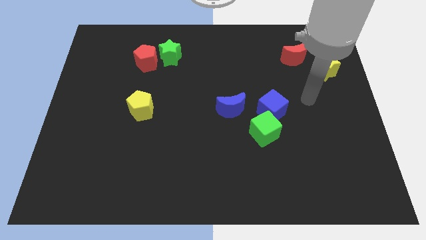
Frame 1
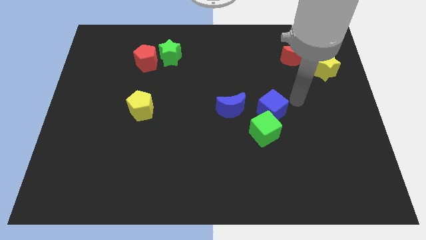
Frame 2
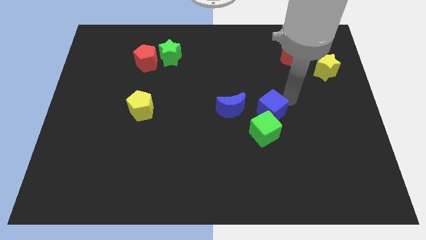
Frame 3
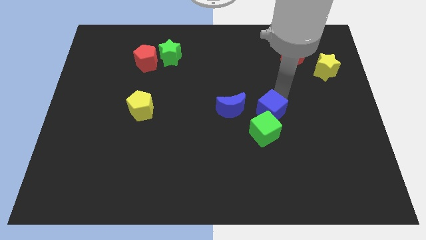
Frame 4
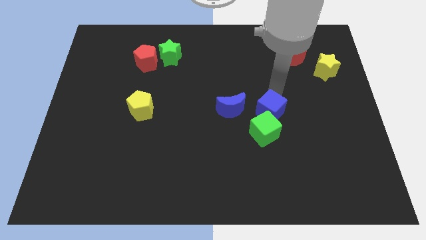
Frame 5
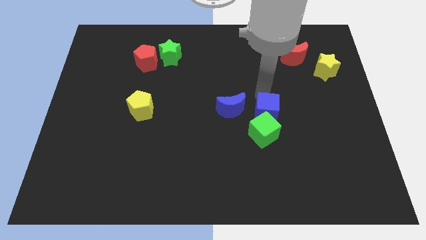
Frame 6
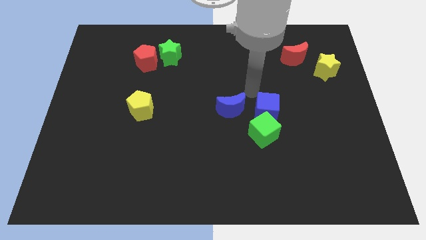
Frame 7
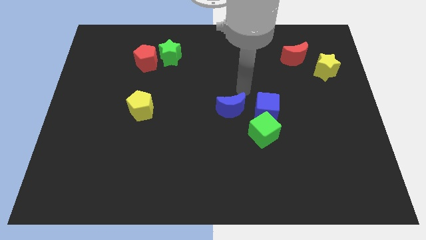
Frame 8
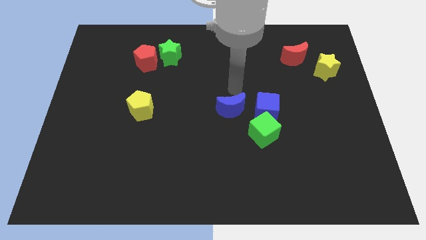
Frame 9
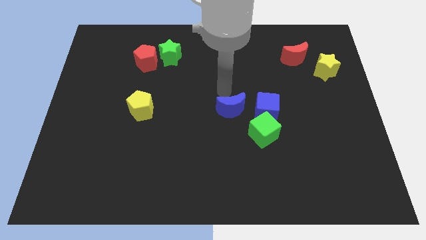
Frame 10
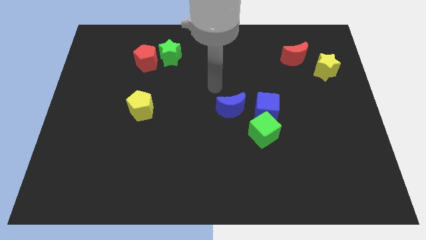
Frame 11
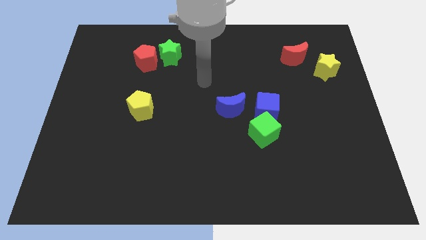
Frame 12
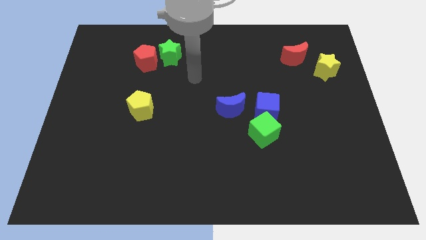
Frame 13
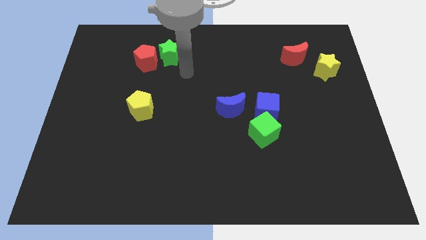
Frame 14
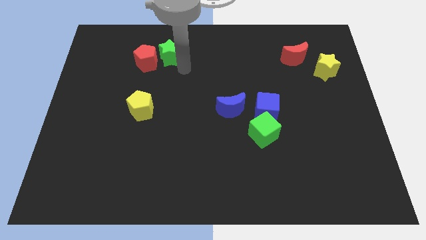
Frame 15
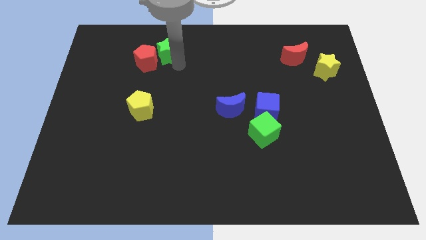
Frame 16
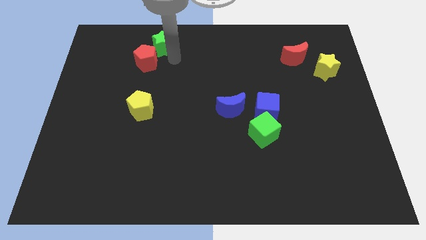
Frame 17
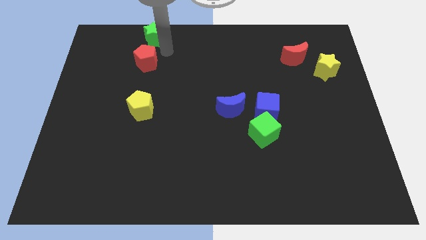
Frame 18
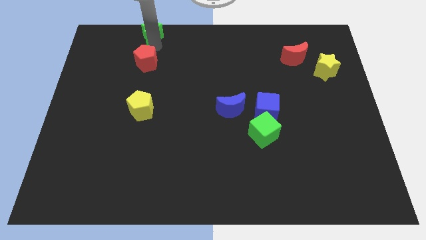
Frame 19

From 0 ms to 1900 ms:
separate the red pentagon from the green star

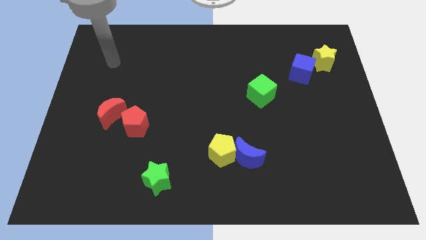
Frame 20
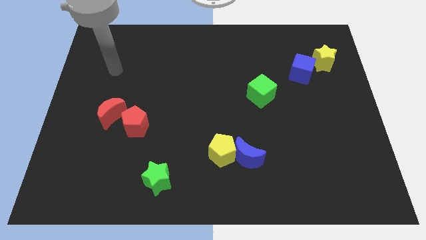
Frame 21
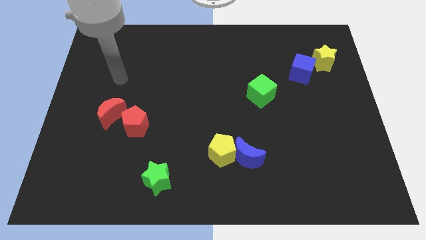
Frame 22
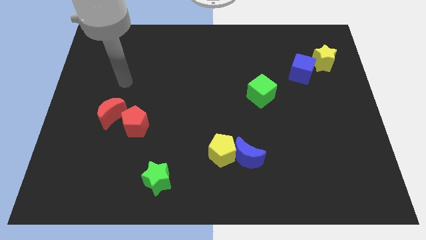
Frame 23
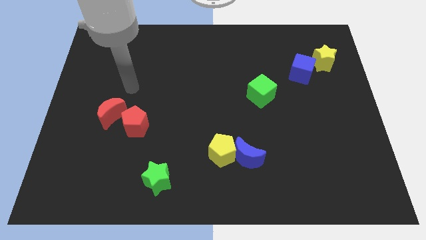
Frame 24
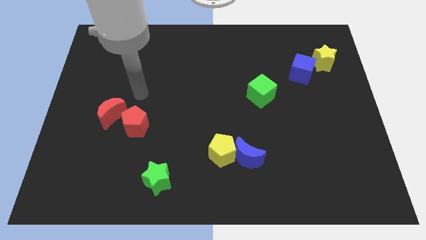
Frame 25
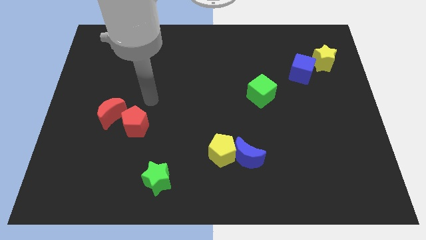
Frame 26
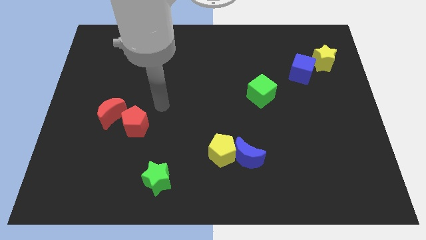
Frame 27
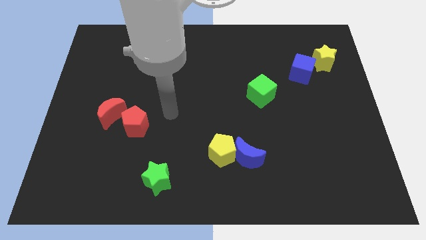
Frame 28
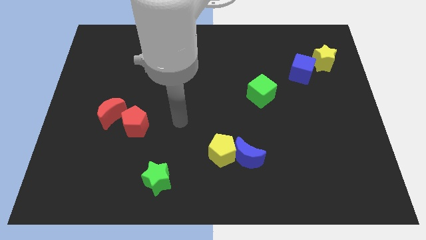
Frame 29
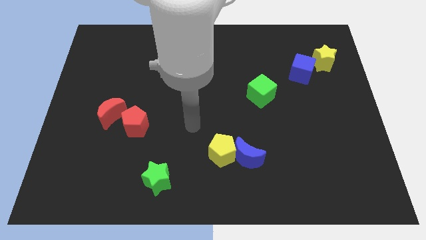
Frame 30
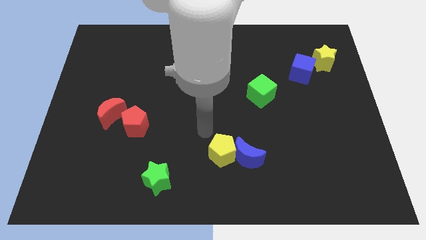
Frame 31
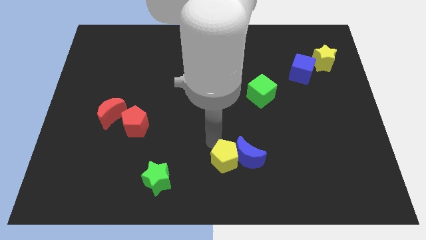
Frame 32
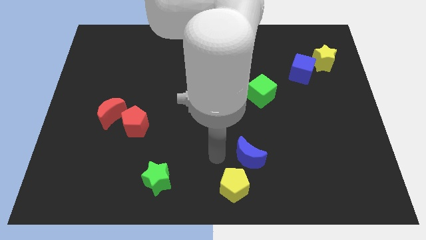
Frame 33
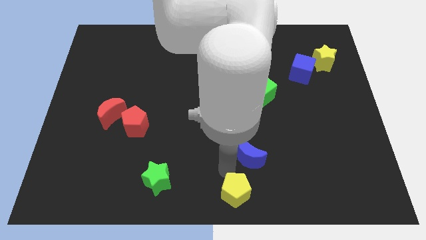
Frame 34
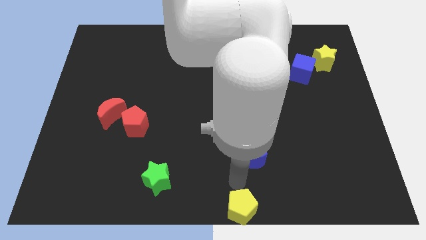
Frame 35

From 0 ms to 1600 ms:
separate the blue moon from the yellow pentagon

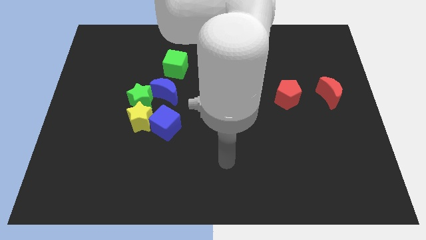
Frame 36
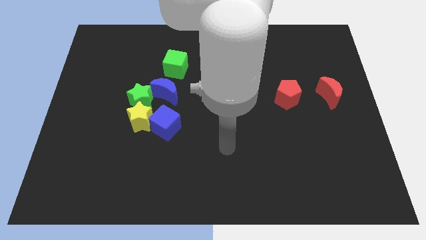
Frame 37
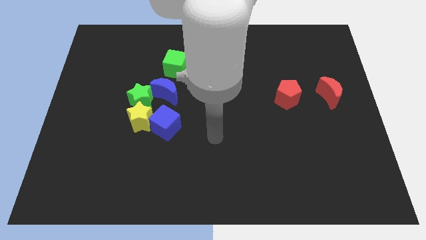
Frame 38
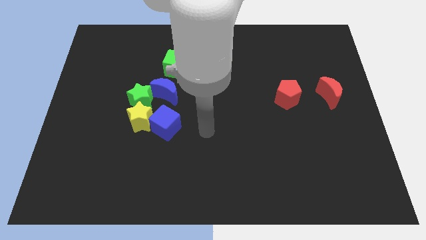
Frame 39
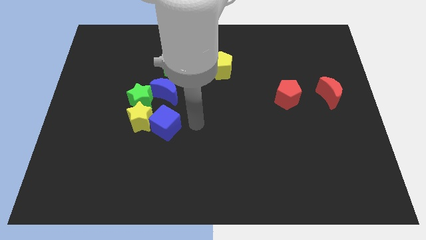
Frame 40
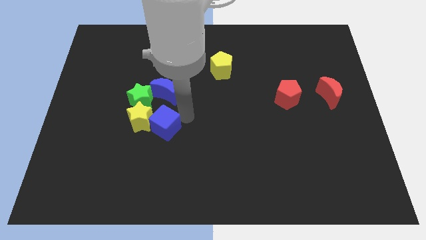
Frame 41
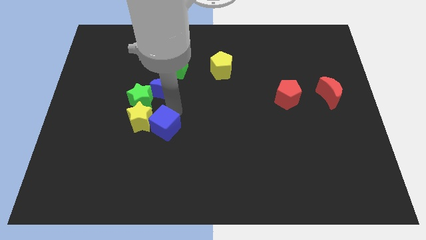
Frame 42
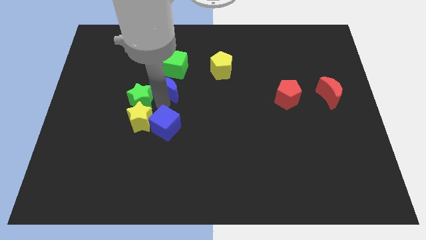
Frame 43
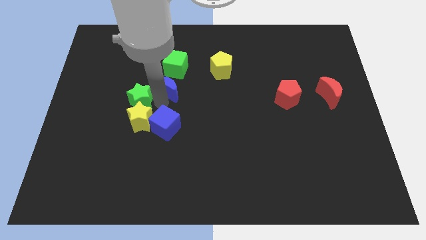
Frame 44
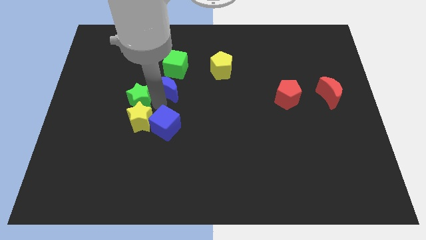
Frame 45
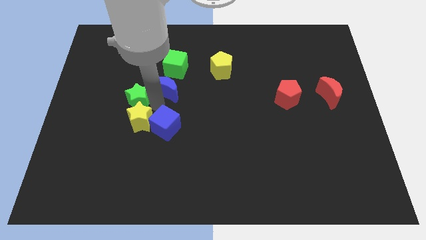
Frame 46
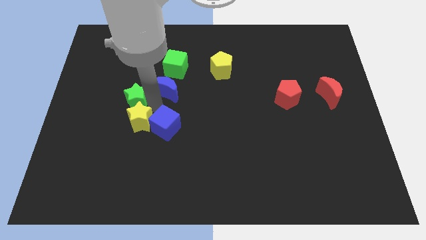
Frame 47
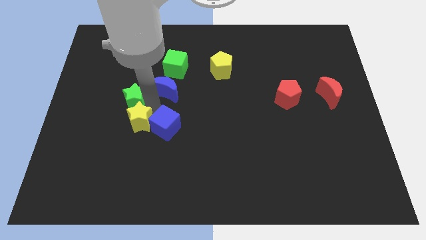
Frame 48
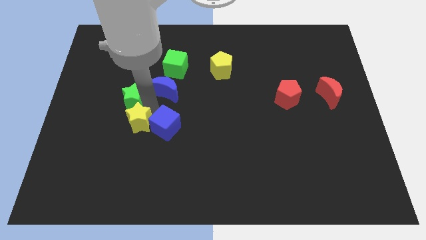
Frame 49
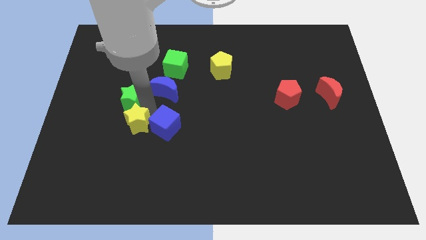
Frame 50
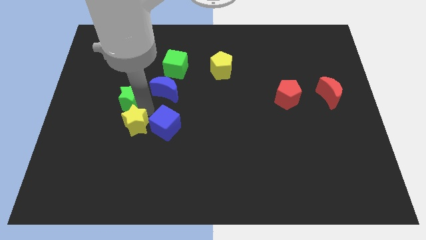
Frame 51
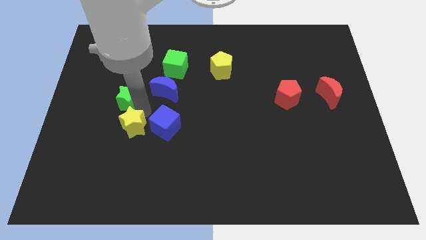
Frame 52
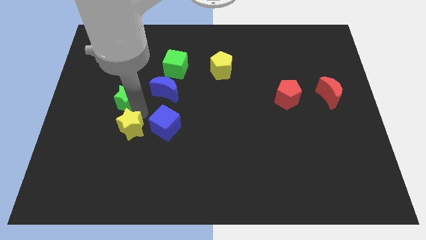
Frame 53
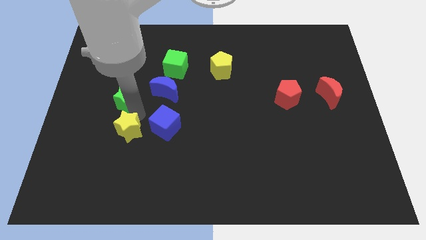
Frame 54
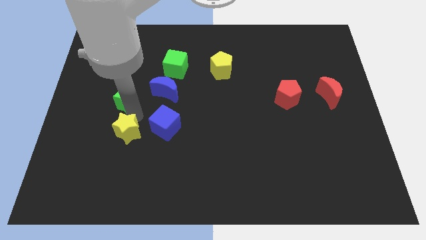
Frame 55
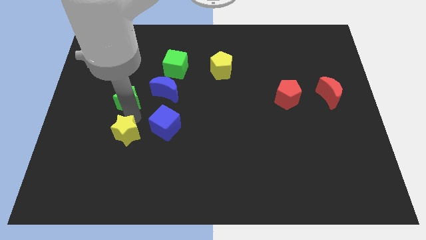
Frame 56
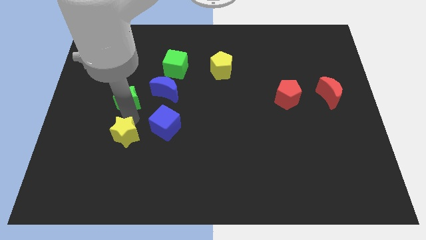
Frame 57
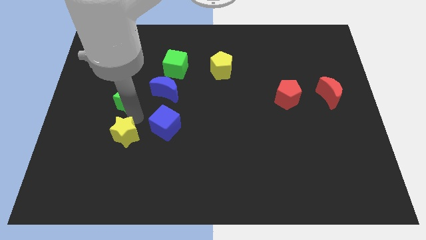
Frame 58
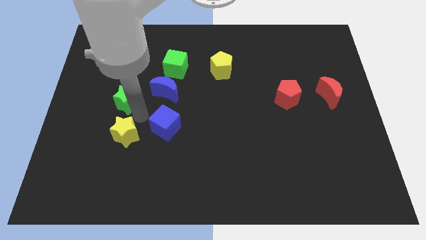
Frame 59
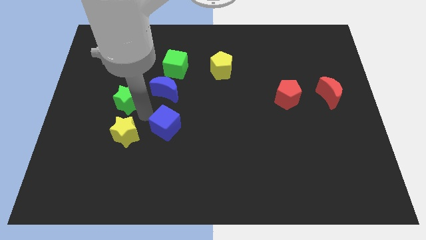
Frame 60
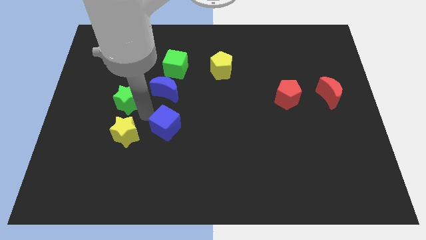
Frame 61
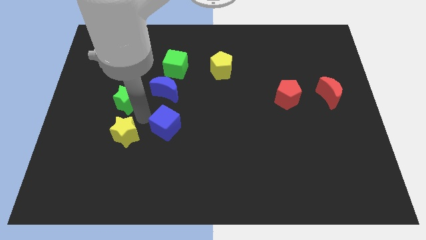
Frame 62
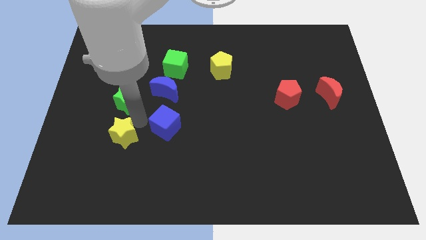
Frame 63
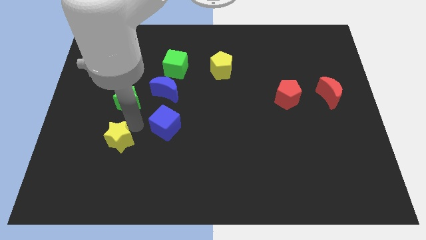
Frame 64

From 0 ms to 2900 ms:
pull the yellow star apart from the group of blocks

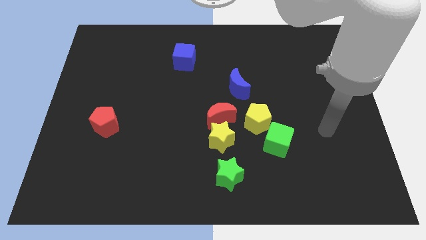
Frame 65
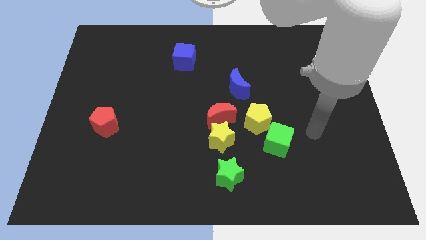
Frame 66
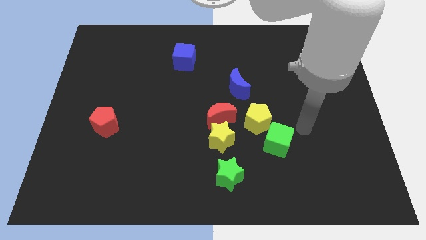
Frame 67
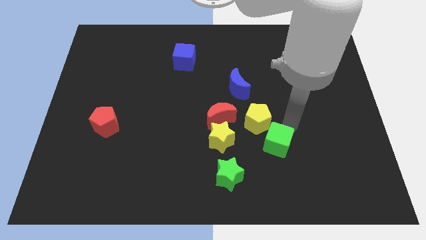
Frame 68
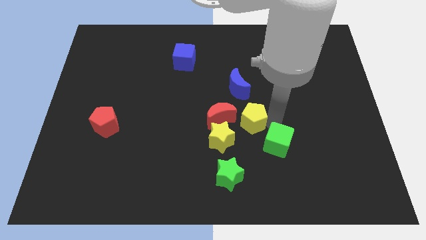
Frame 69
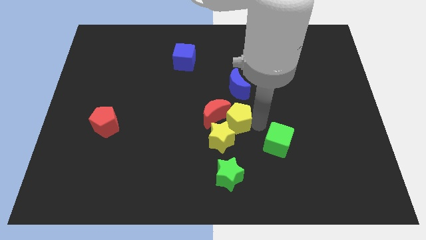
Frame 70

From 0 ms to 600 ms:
move the green cube away from the yellow pentagon

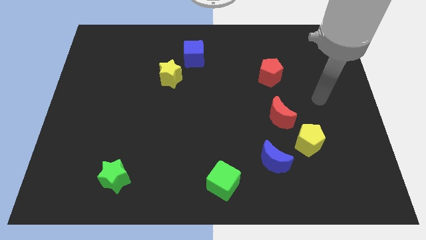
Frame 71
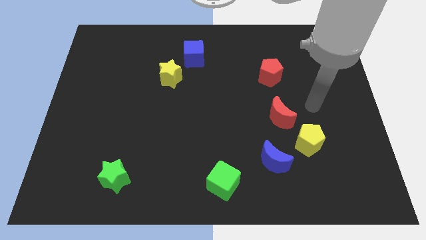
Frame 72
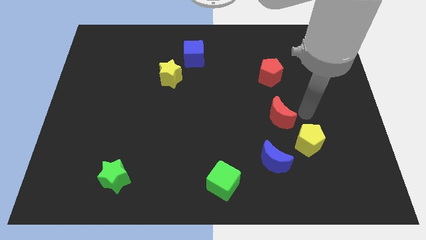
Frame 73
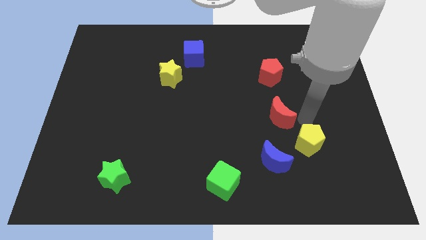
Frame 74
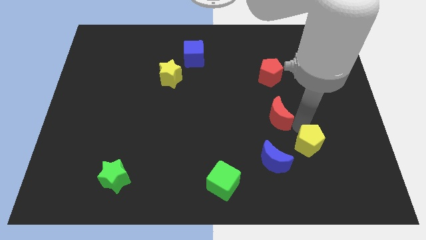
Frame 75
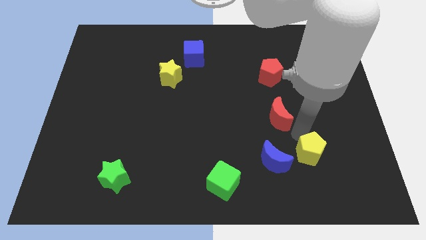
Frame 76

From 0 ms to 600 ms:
move the red moon away from the yellow pentagon

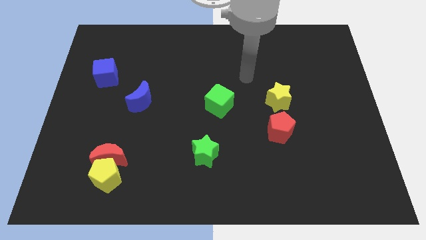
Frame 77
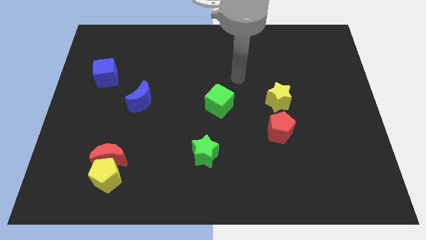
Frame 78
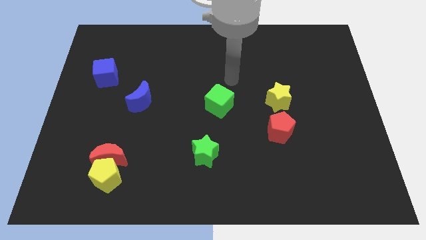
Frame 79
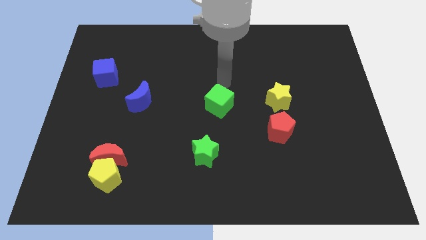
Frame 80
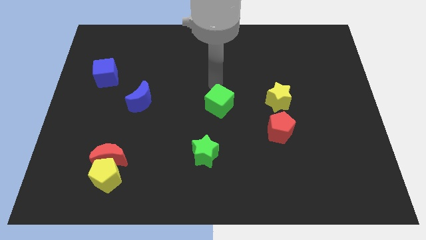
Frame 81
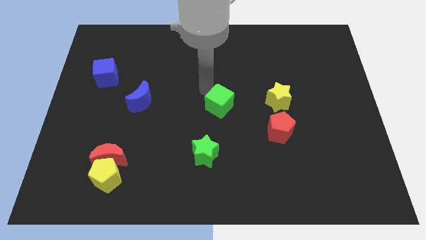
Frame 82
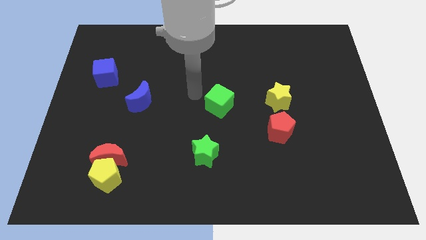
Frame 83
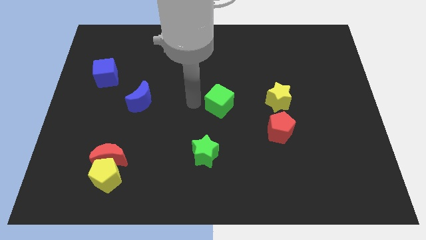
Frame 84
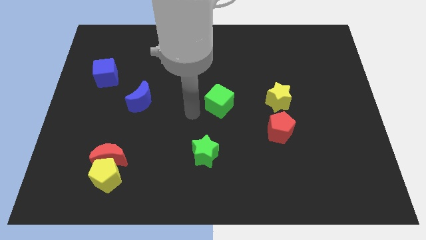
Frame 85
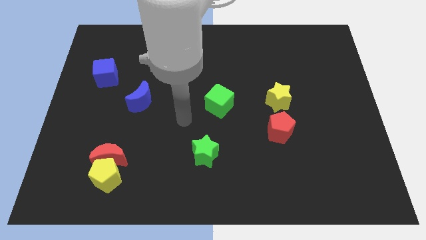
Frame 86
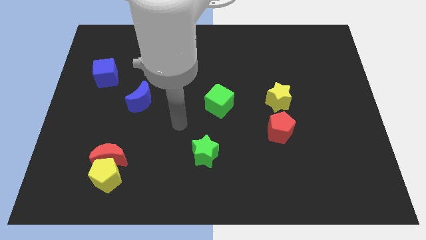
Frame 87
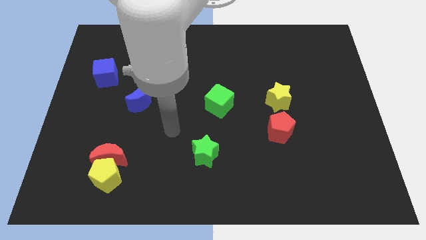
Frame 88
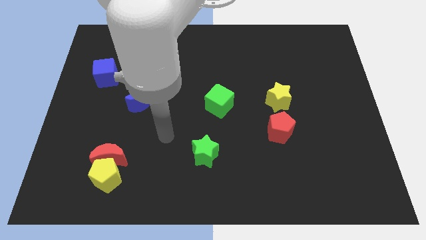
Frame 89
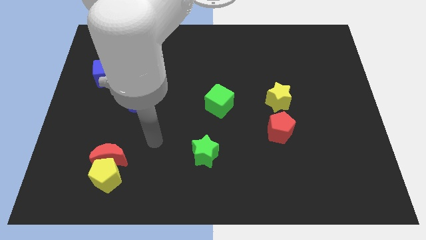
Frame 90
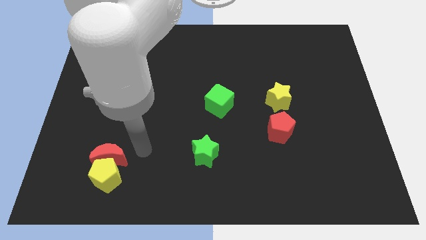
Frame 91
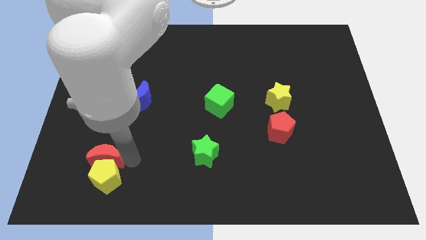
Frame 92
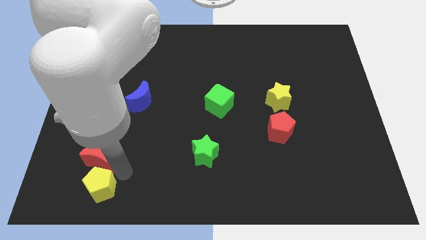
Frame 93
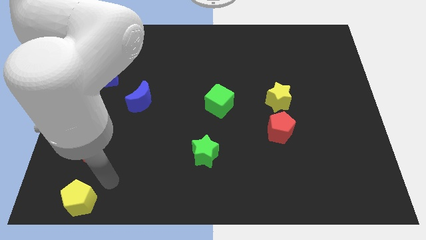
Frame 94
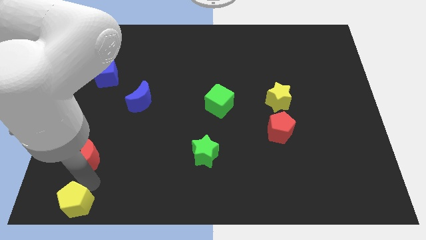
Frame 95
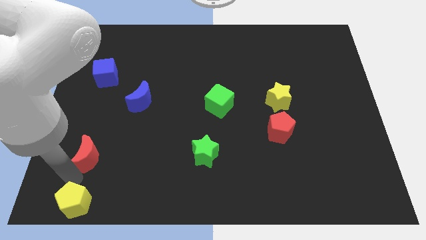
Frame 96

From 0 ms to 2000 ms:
separate the red moon from the yellow pentagon
